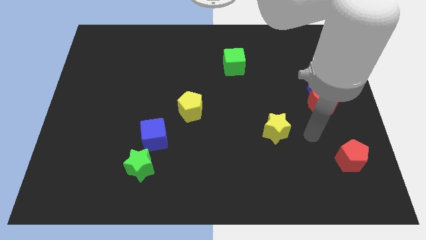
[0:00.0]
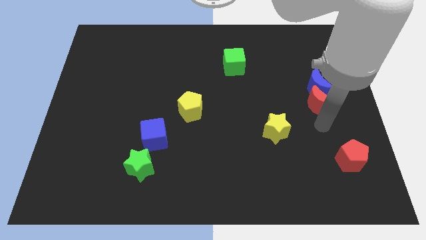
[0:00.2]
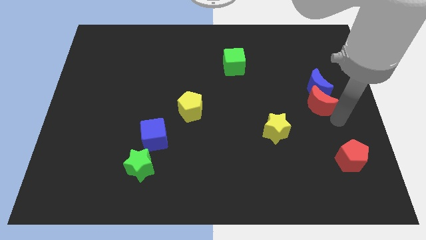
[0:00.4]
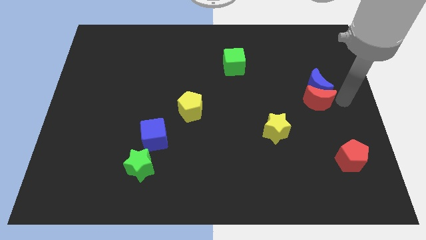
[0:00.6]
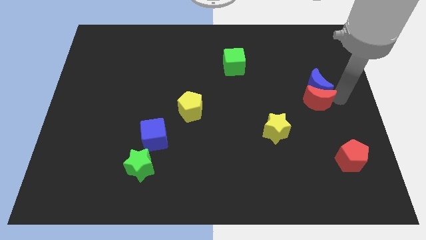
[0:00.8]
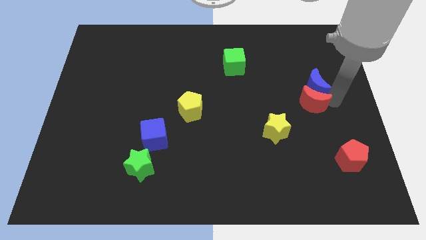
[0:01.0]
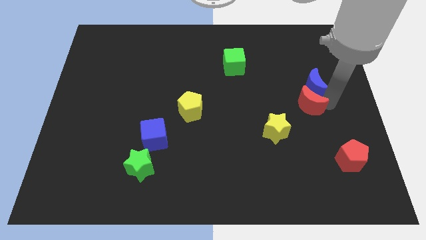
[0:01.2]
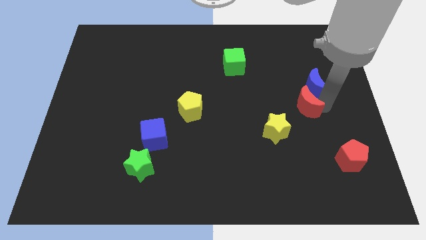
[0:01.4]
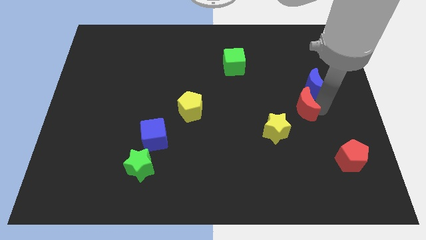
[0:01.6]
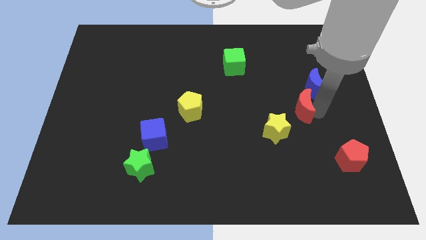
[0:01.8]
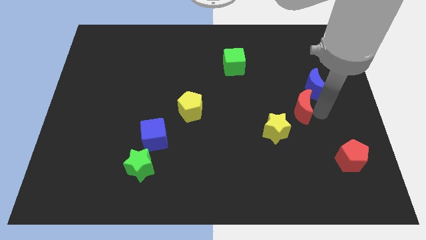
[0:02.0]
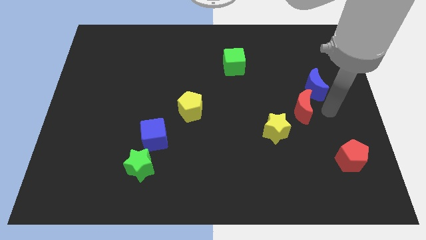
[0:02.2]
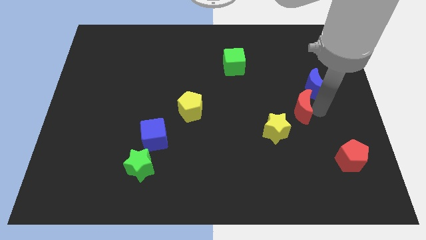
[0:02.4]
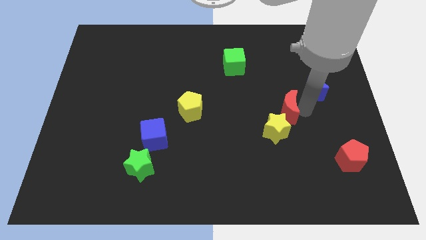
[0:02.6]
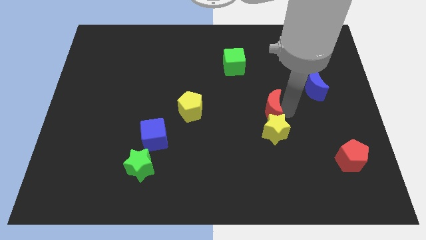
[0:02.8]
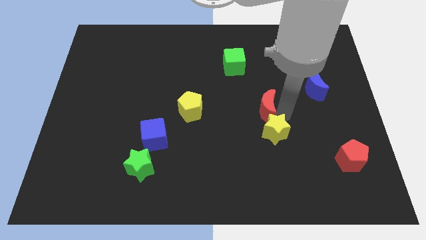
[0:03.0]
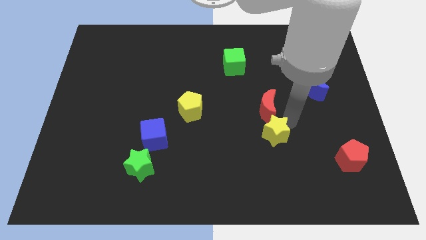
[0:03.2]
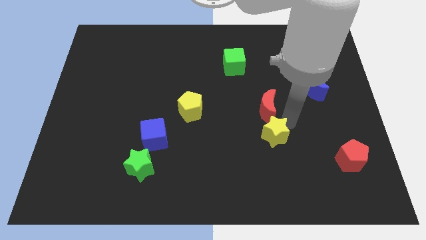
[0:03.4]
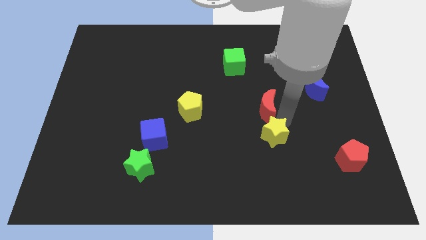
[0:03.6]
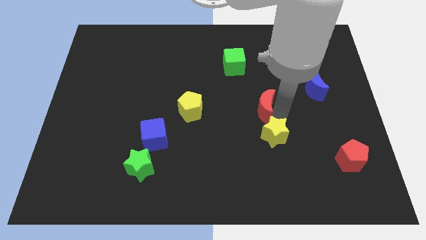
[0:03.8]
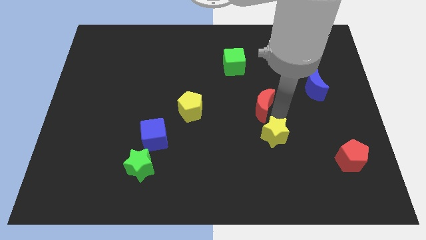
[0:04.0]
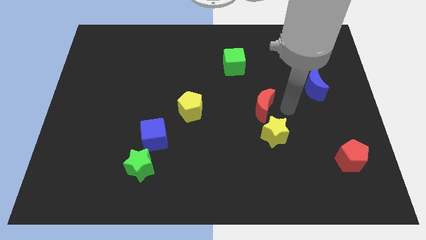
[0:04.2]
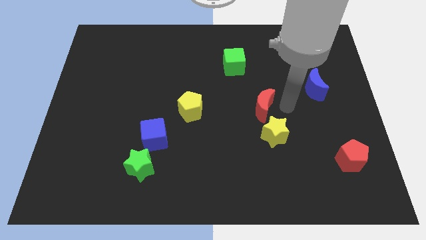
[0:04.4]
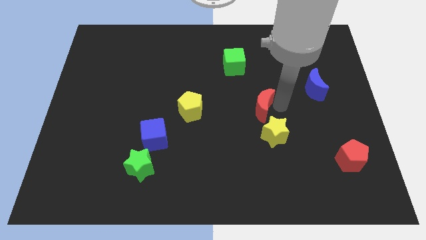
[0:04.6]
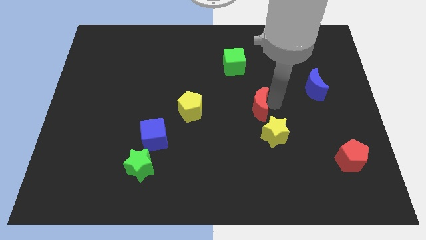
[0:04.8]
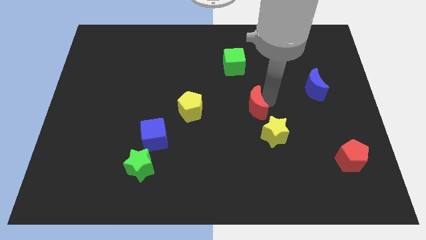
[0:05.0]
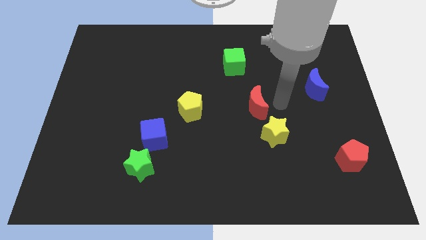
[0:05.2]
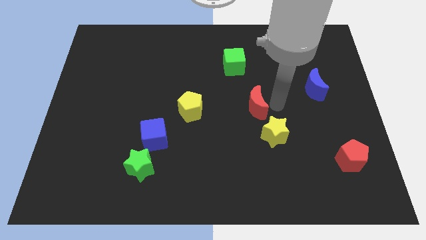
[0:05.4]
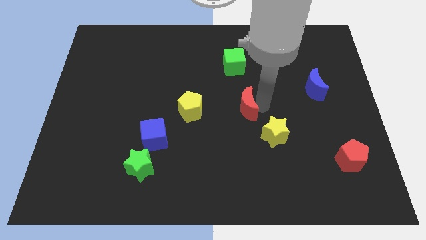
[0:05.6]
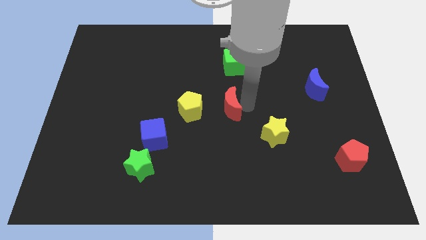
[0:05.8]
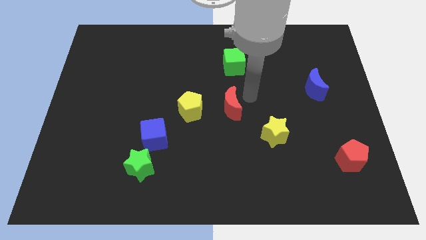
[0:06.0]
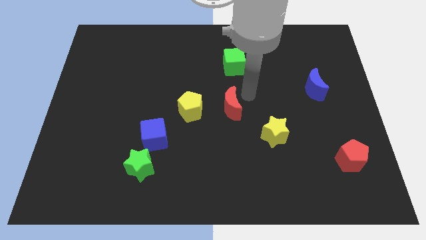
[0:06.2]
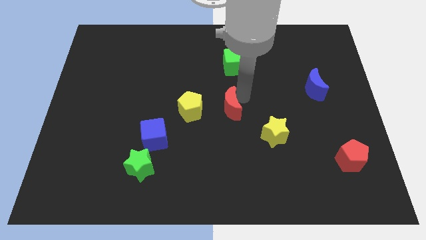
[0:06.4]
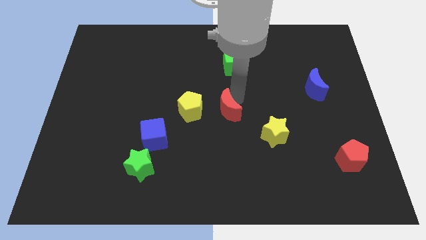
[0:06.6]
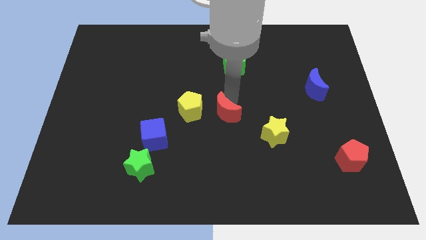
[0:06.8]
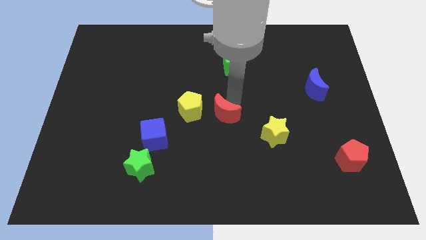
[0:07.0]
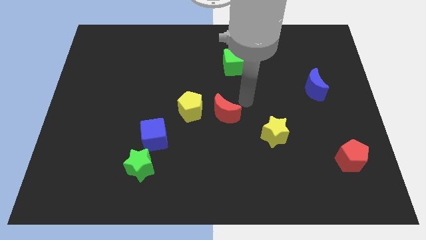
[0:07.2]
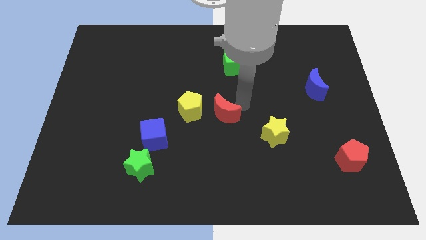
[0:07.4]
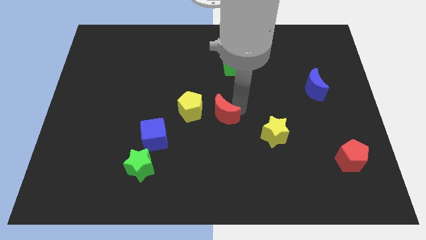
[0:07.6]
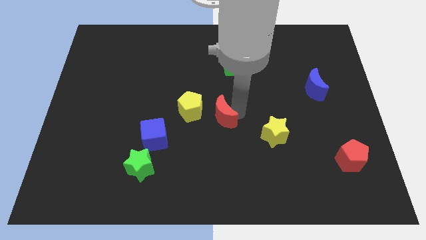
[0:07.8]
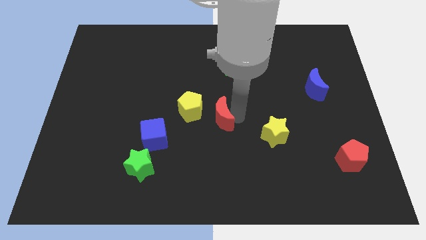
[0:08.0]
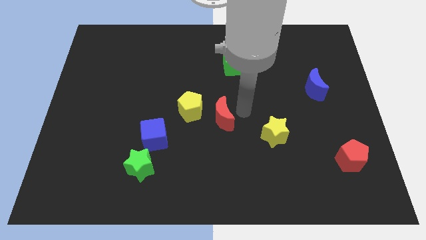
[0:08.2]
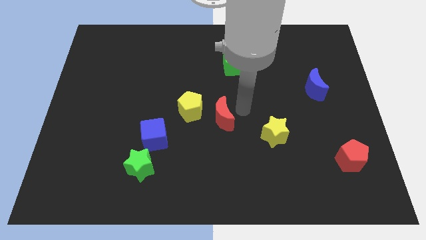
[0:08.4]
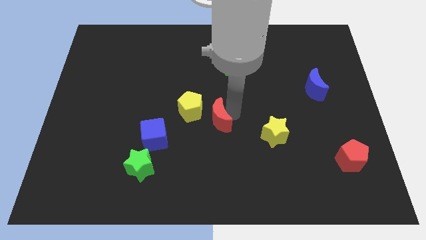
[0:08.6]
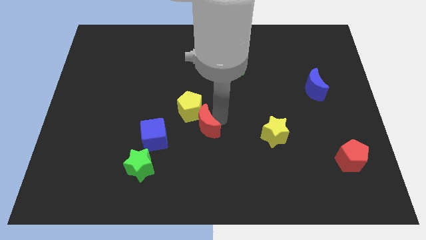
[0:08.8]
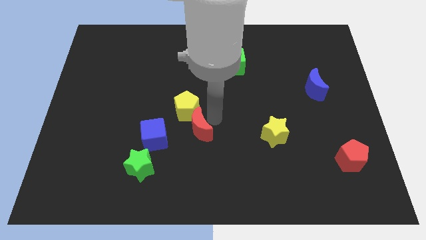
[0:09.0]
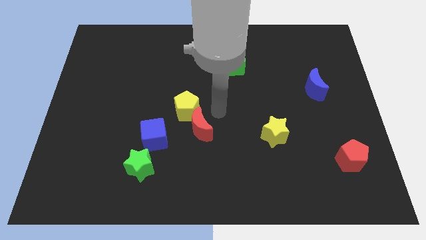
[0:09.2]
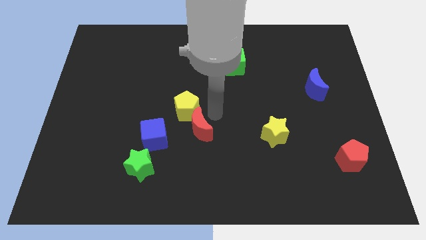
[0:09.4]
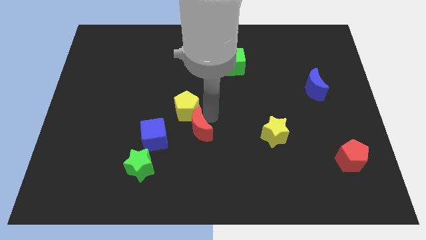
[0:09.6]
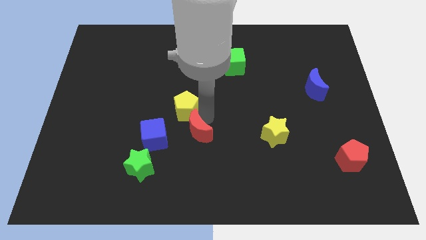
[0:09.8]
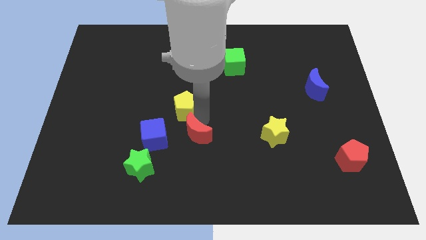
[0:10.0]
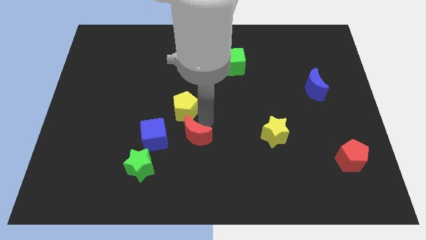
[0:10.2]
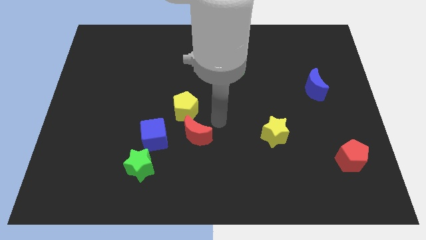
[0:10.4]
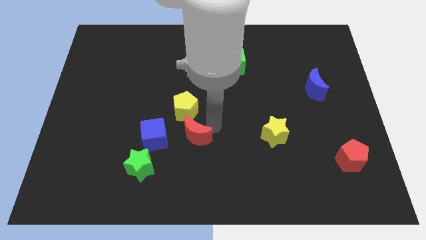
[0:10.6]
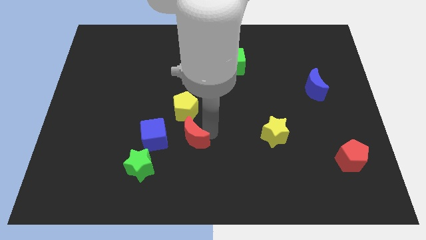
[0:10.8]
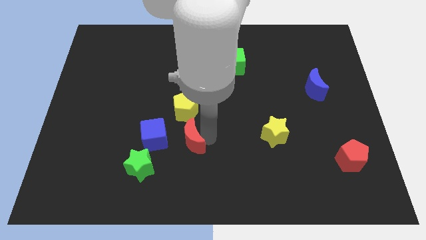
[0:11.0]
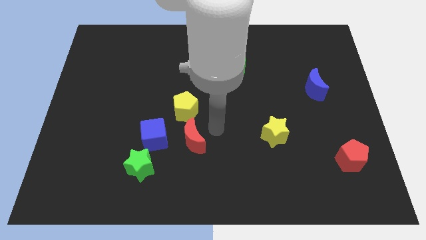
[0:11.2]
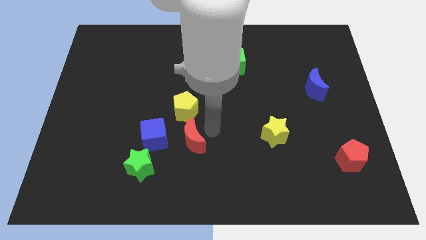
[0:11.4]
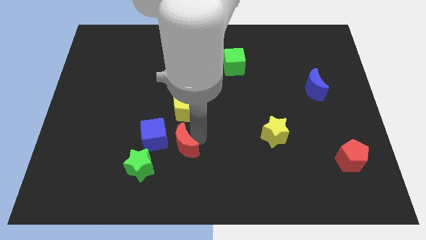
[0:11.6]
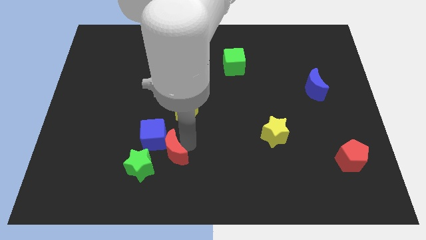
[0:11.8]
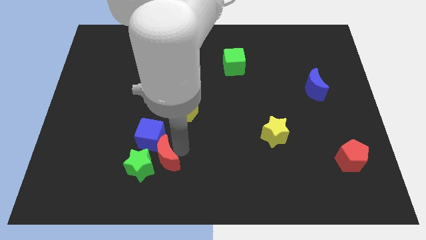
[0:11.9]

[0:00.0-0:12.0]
put the red moon close to the green star

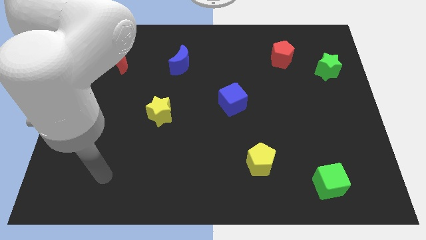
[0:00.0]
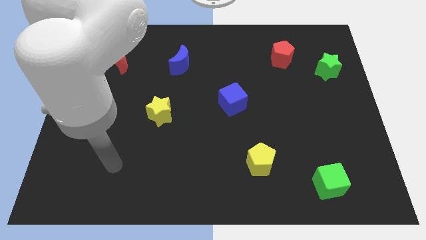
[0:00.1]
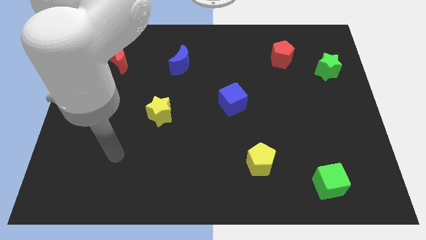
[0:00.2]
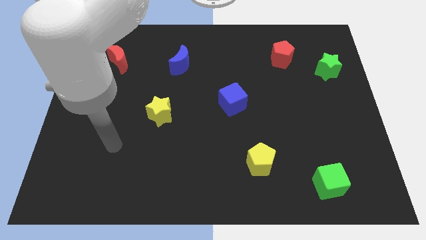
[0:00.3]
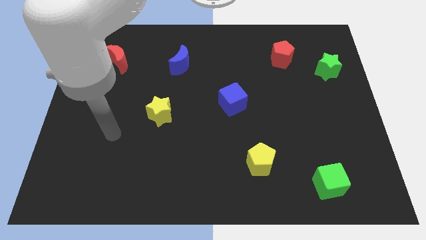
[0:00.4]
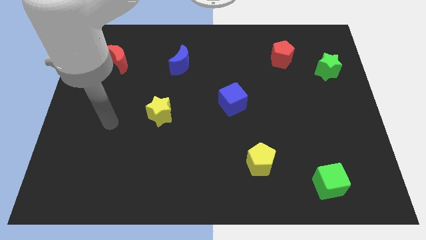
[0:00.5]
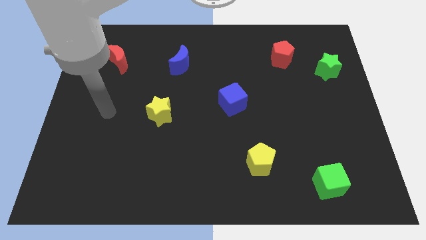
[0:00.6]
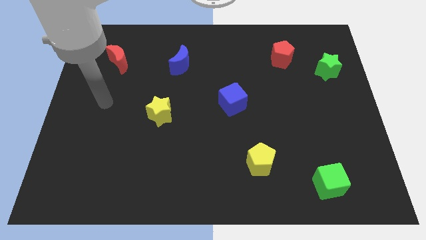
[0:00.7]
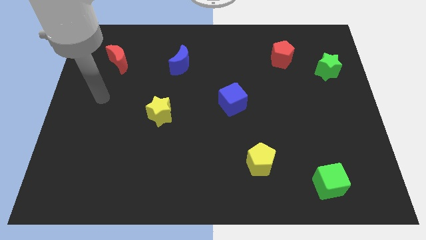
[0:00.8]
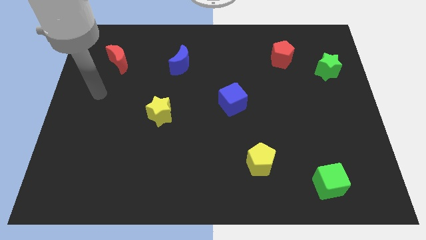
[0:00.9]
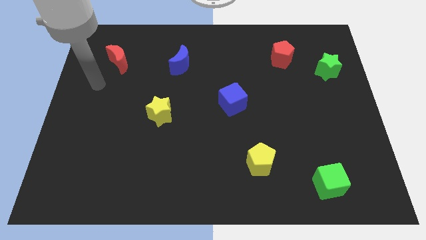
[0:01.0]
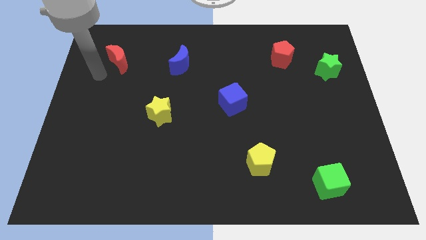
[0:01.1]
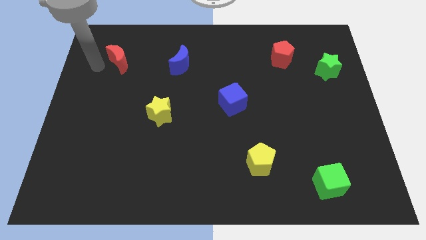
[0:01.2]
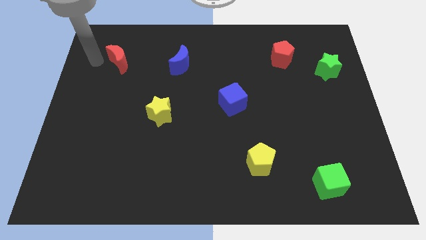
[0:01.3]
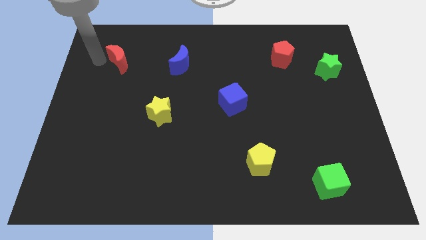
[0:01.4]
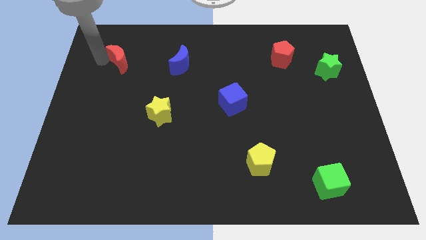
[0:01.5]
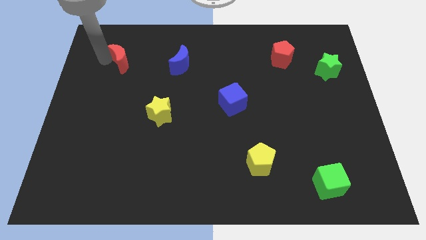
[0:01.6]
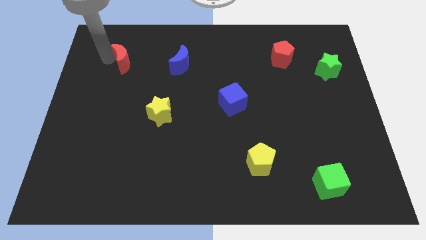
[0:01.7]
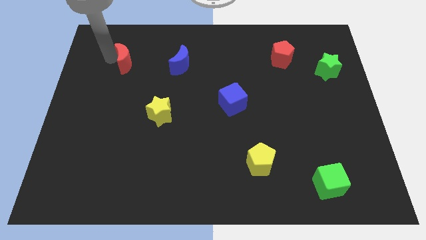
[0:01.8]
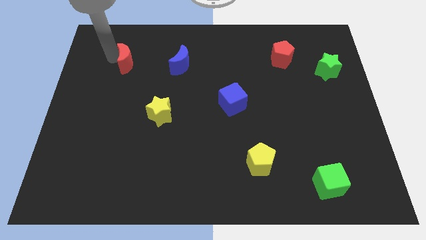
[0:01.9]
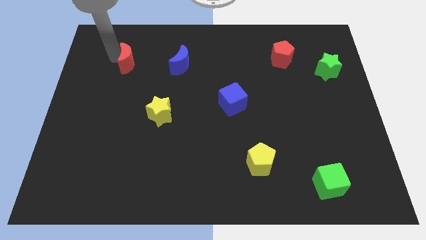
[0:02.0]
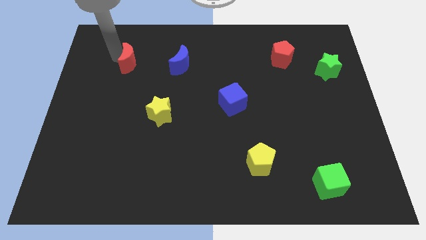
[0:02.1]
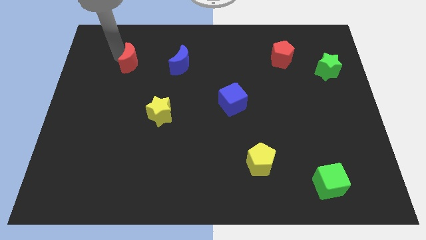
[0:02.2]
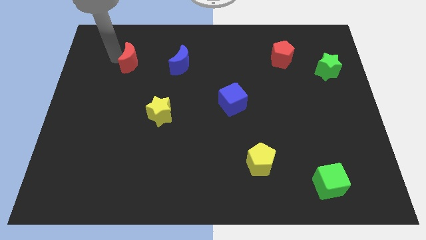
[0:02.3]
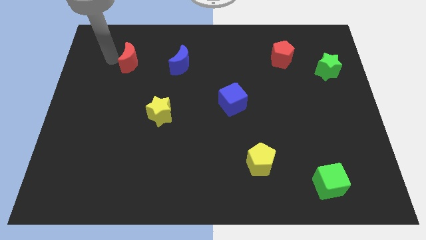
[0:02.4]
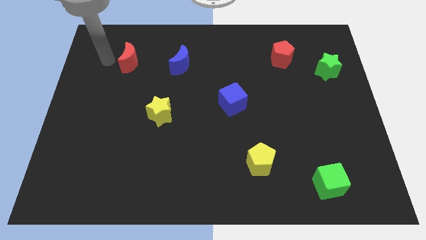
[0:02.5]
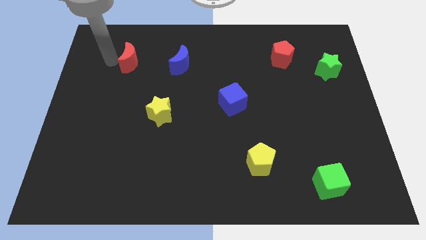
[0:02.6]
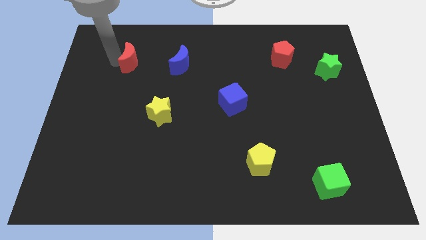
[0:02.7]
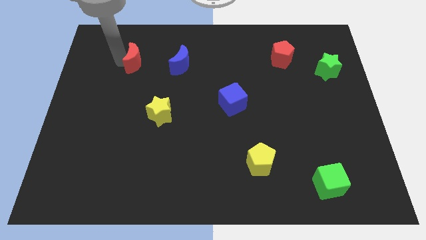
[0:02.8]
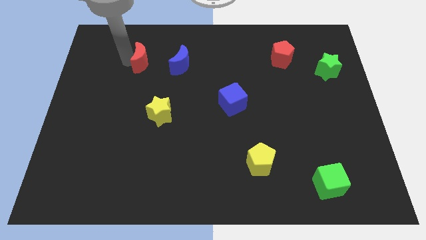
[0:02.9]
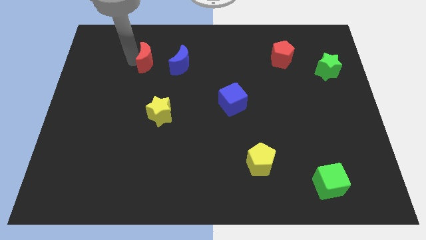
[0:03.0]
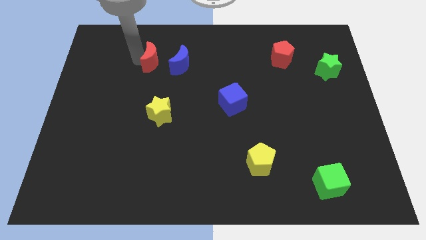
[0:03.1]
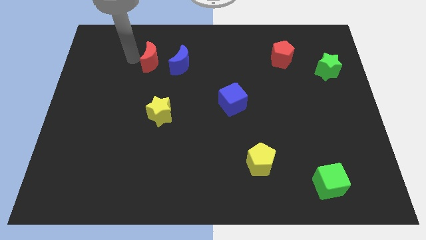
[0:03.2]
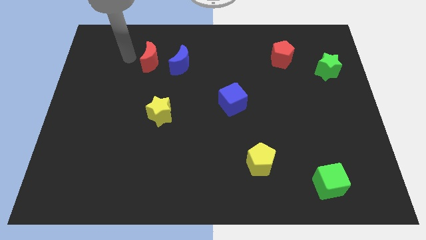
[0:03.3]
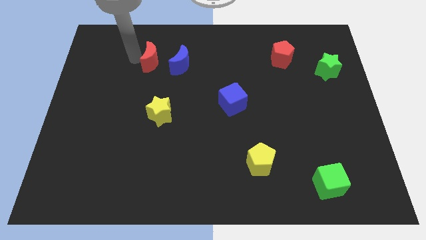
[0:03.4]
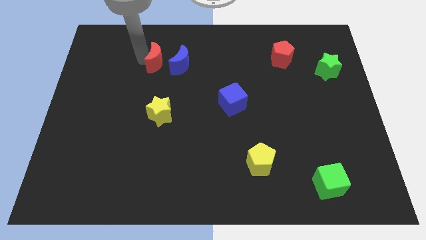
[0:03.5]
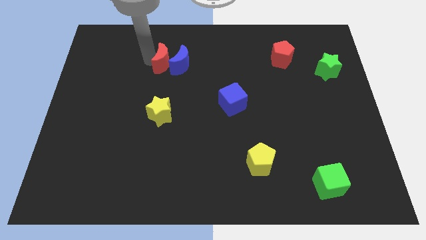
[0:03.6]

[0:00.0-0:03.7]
move the red moon close to the blue moon
